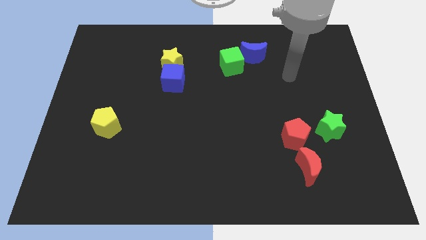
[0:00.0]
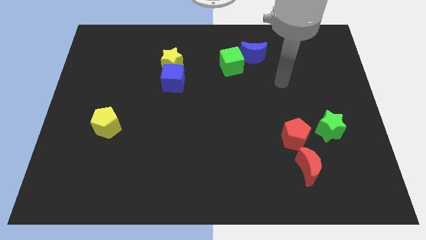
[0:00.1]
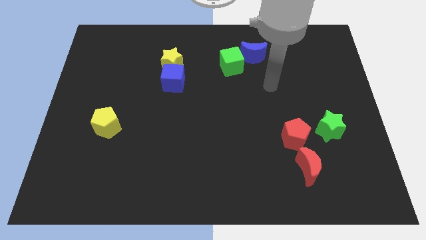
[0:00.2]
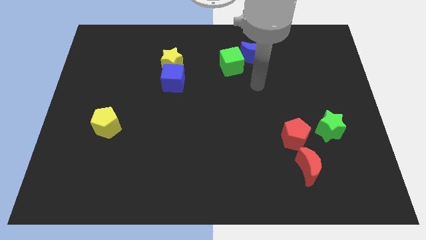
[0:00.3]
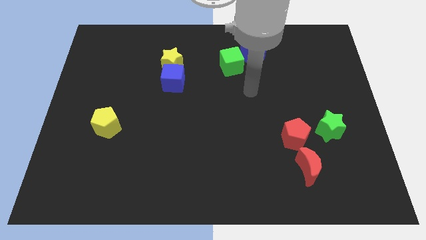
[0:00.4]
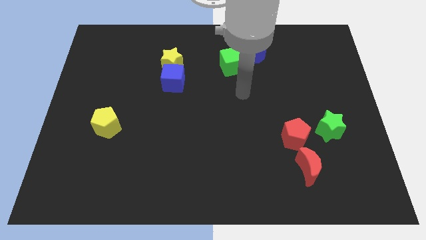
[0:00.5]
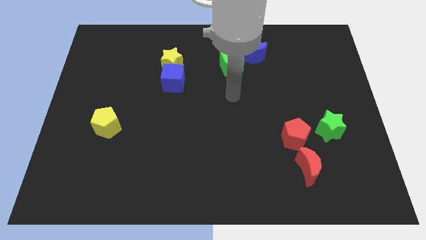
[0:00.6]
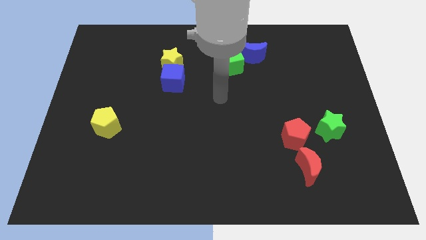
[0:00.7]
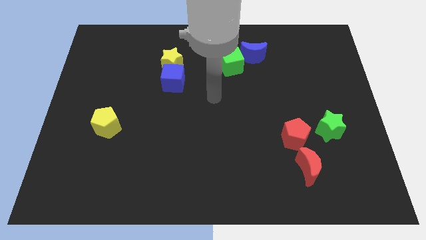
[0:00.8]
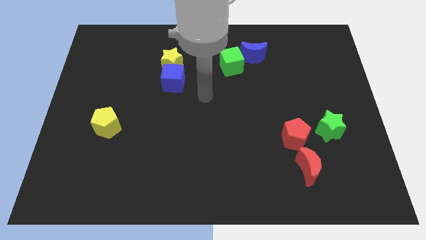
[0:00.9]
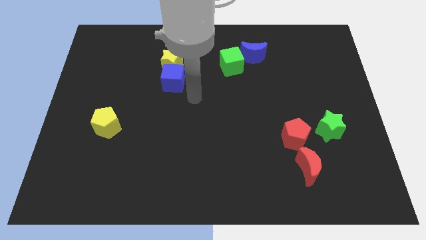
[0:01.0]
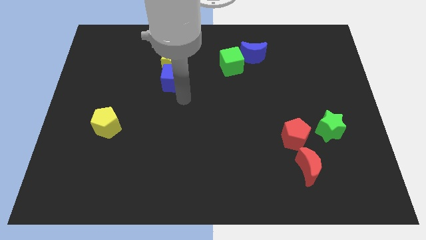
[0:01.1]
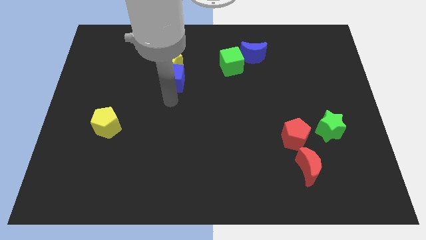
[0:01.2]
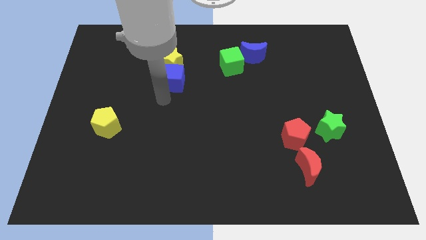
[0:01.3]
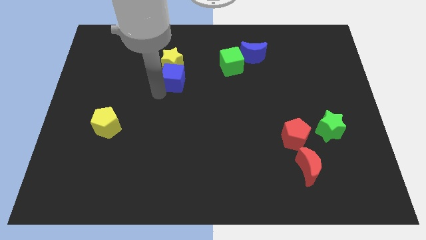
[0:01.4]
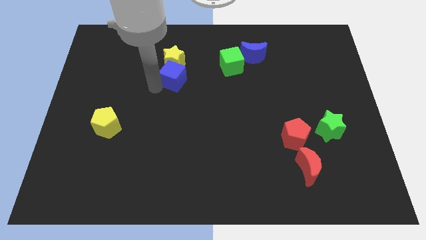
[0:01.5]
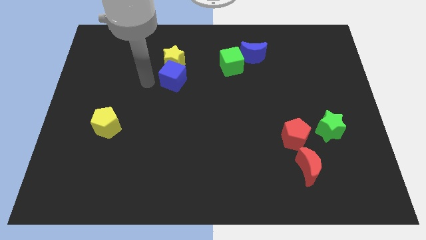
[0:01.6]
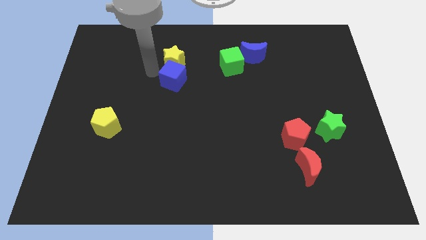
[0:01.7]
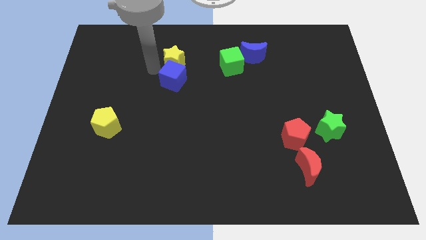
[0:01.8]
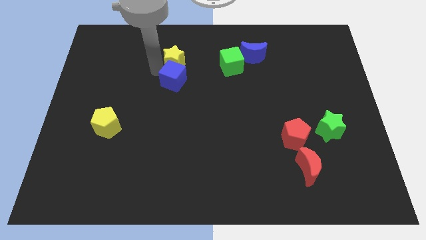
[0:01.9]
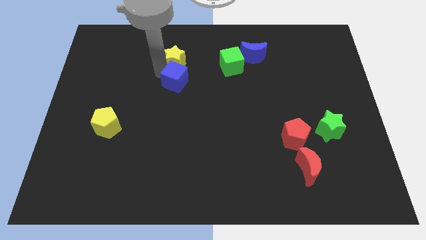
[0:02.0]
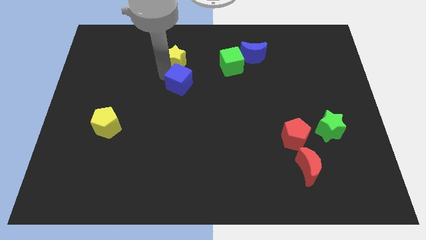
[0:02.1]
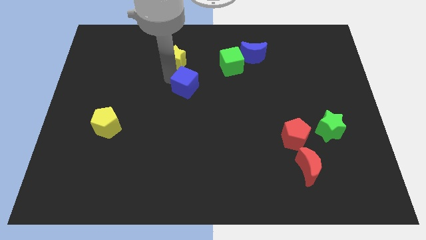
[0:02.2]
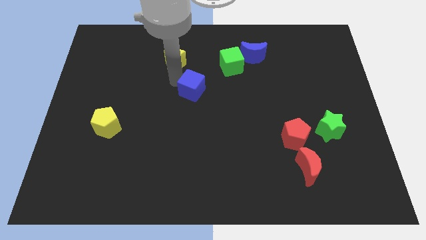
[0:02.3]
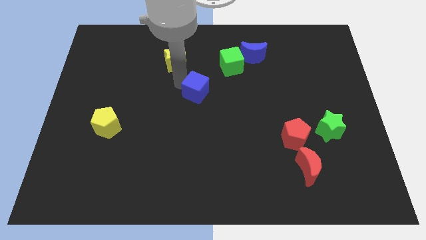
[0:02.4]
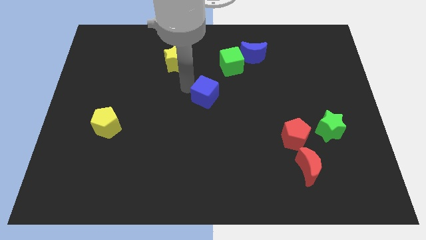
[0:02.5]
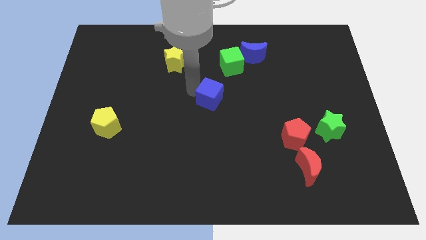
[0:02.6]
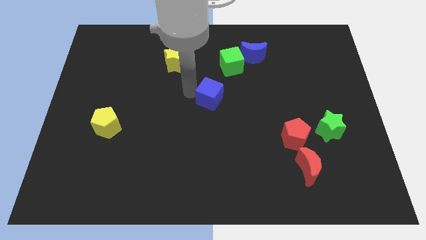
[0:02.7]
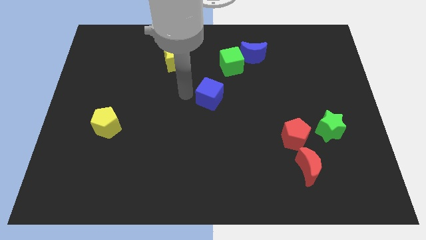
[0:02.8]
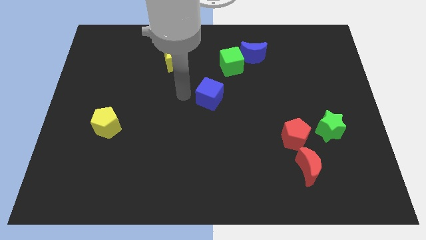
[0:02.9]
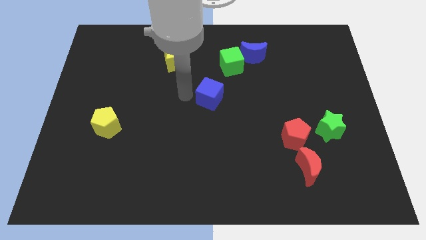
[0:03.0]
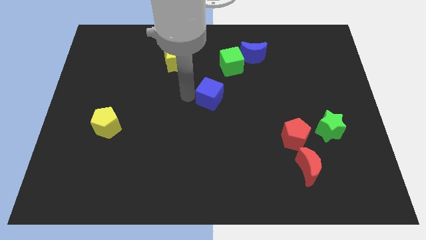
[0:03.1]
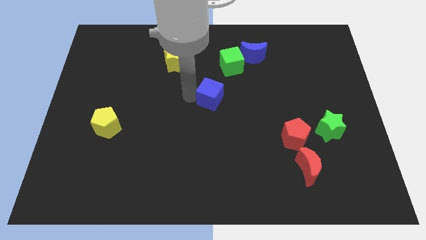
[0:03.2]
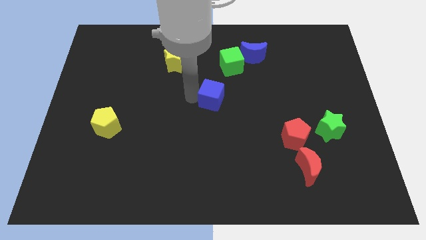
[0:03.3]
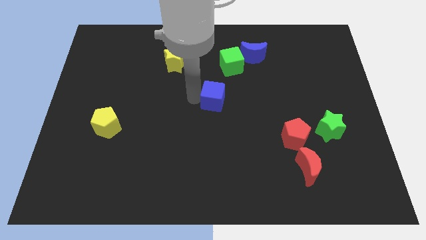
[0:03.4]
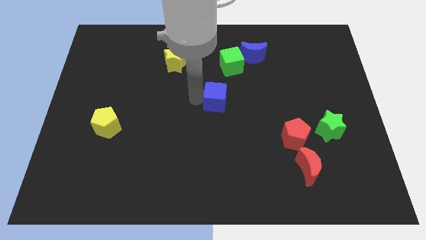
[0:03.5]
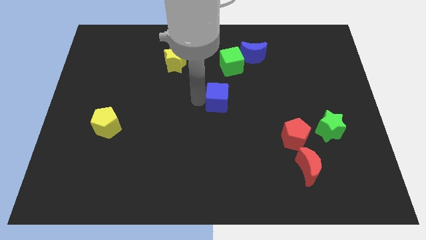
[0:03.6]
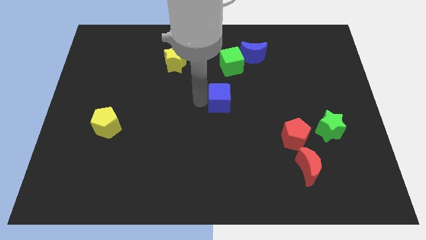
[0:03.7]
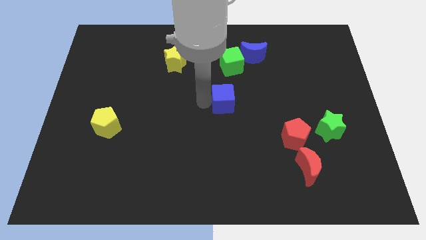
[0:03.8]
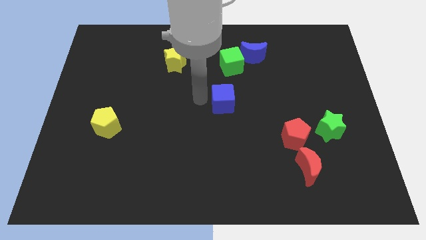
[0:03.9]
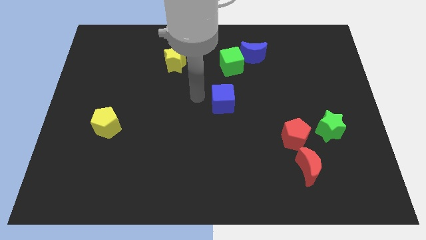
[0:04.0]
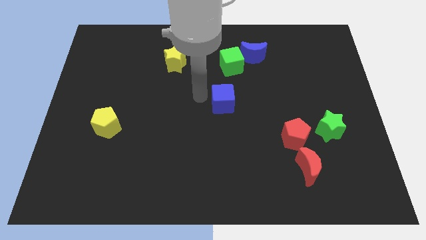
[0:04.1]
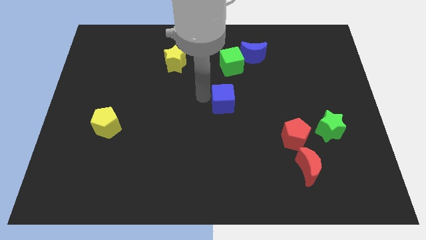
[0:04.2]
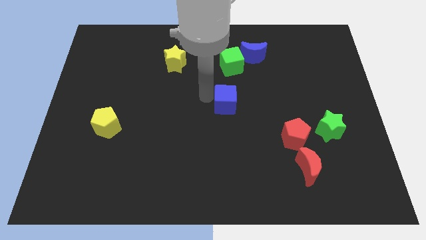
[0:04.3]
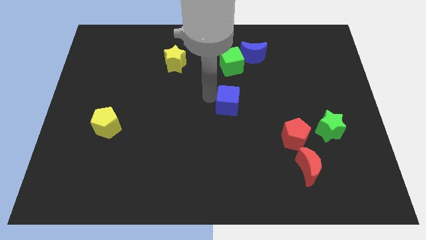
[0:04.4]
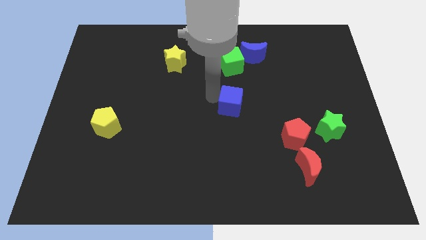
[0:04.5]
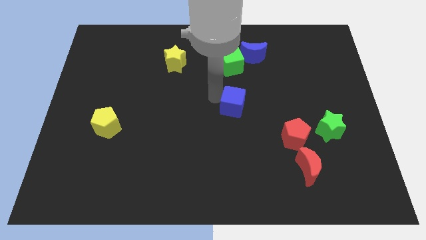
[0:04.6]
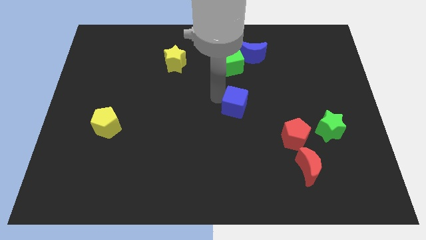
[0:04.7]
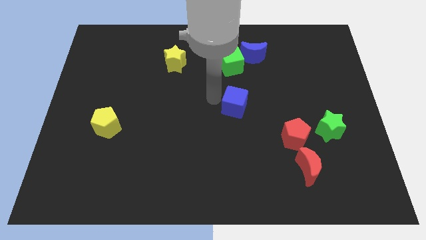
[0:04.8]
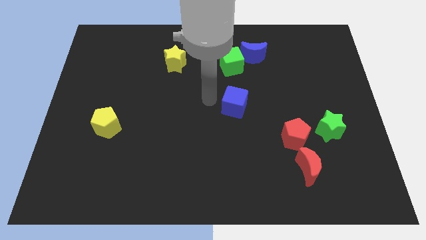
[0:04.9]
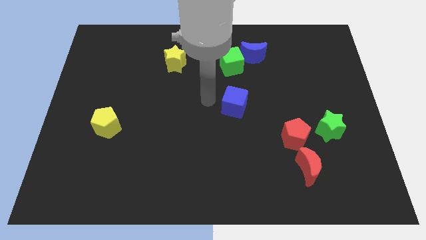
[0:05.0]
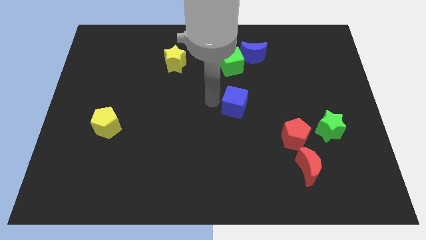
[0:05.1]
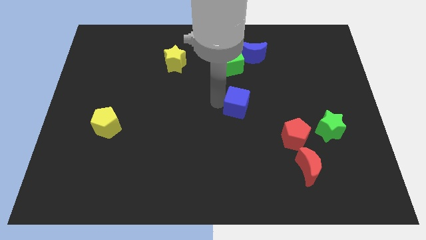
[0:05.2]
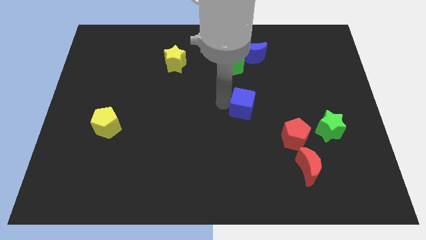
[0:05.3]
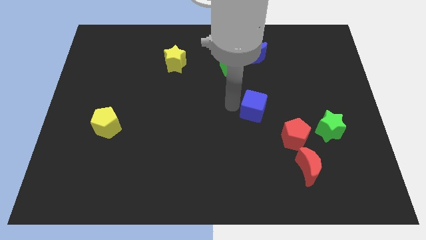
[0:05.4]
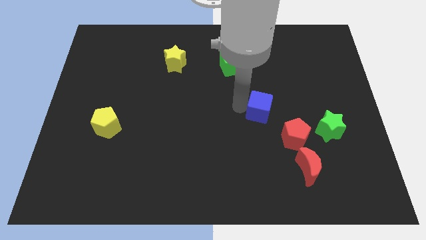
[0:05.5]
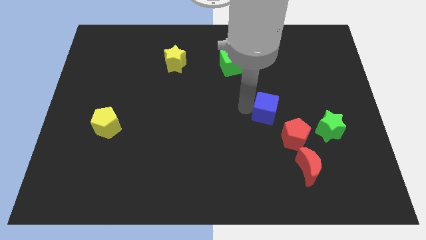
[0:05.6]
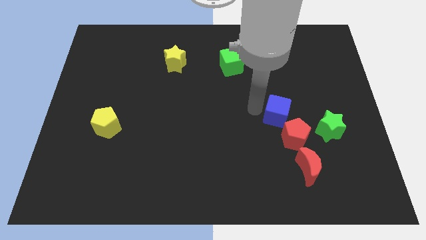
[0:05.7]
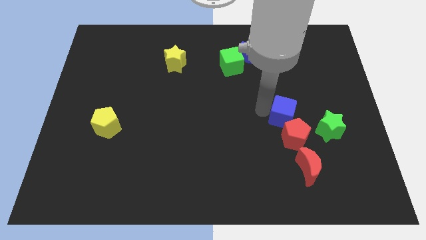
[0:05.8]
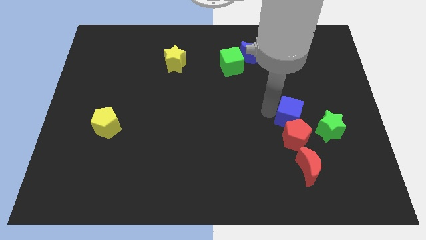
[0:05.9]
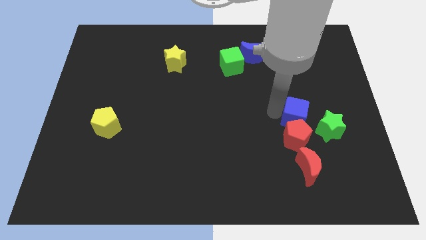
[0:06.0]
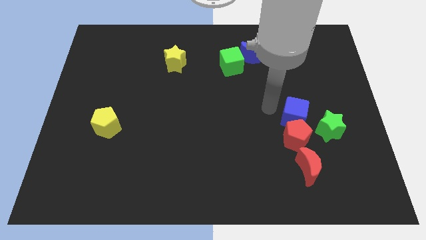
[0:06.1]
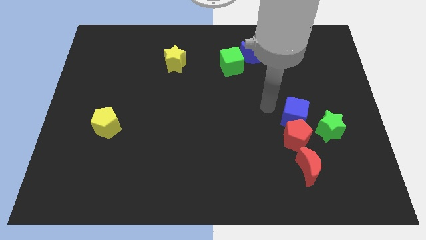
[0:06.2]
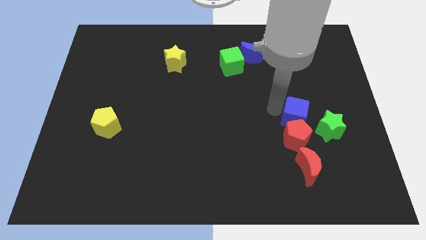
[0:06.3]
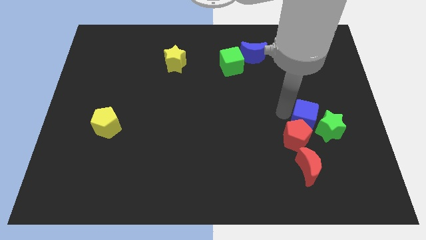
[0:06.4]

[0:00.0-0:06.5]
slide the blue cube next to the green star

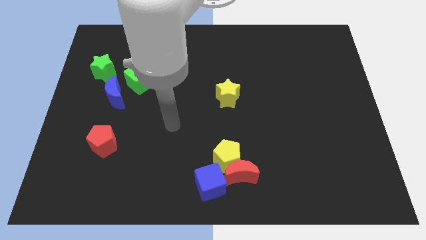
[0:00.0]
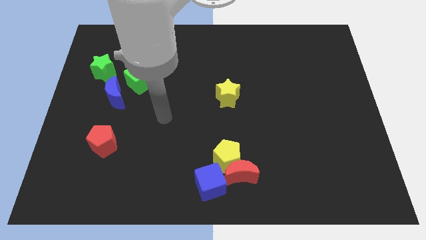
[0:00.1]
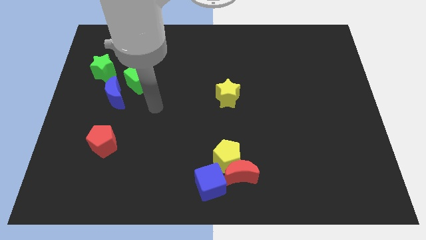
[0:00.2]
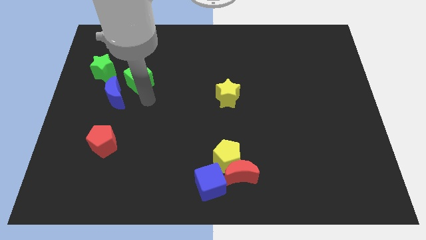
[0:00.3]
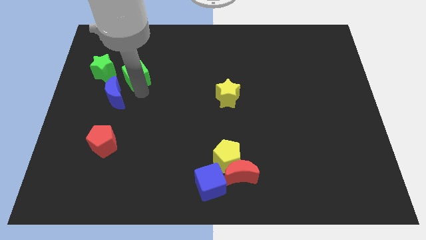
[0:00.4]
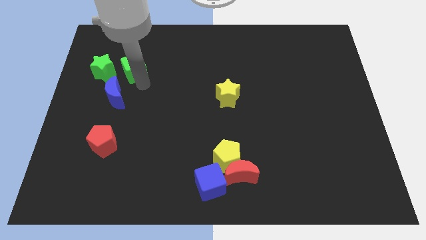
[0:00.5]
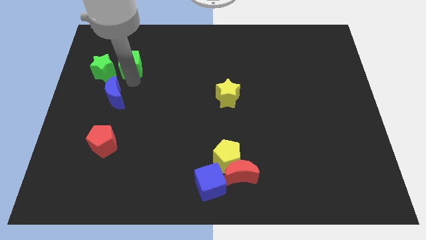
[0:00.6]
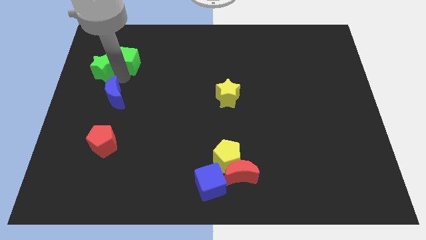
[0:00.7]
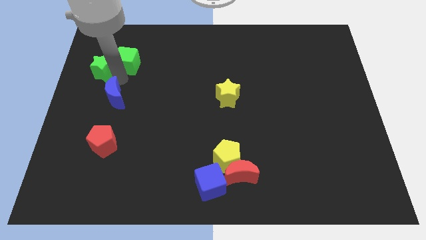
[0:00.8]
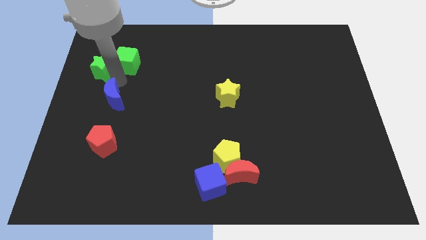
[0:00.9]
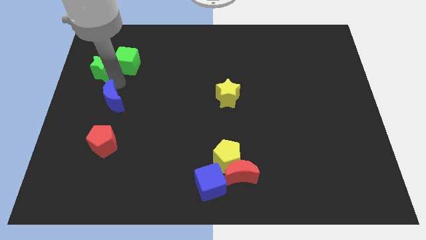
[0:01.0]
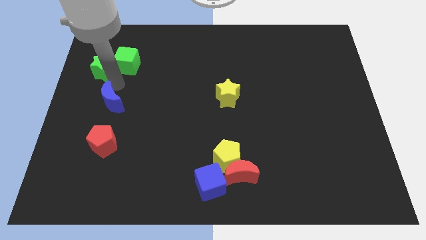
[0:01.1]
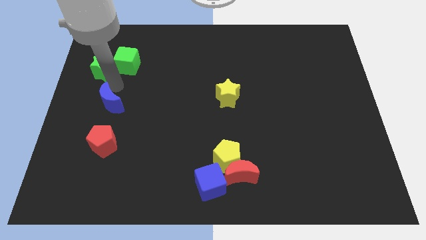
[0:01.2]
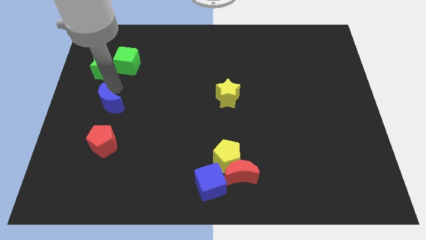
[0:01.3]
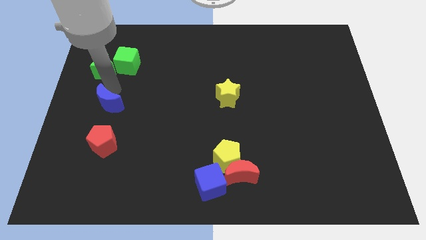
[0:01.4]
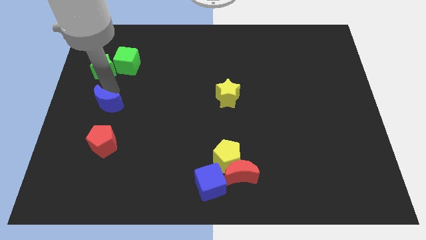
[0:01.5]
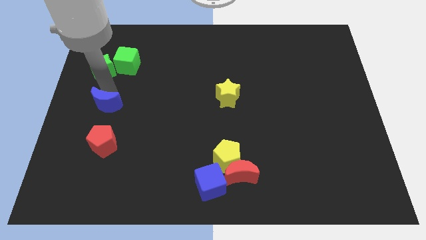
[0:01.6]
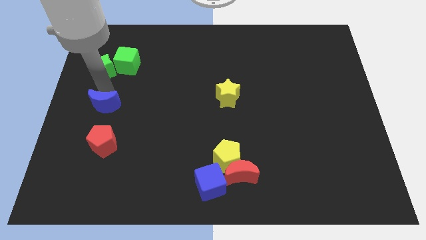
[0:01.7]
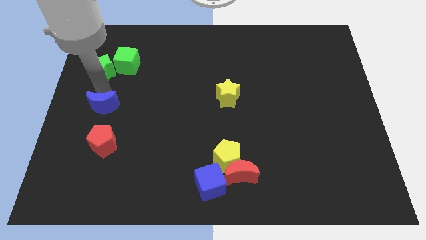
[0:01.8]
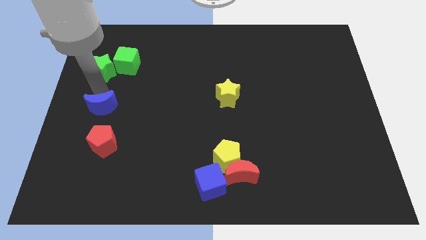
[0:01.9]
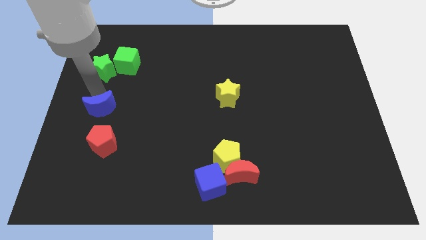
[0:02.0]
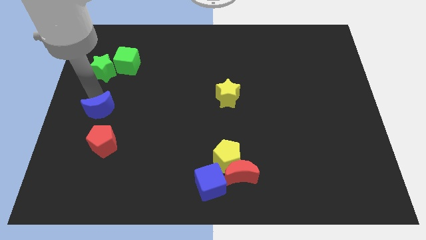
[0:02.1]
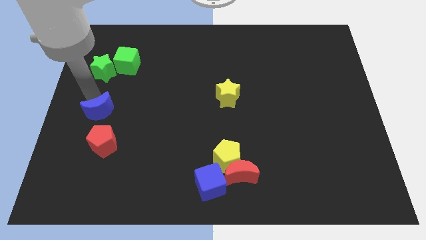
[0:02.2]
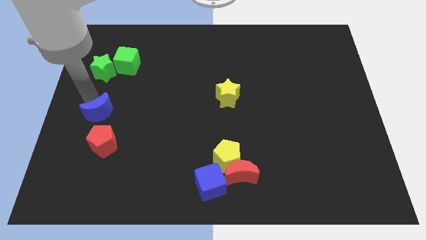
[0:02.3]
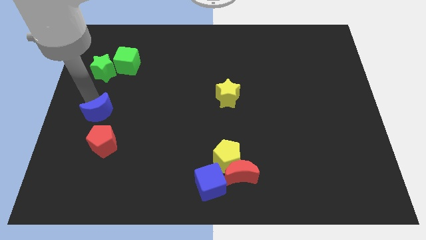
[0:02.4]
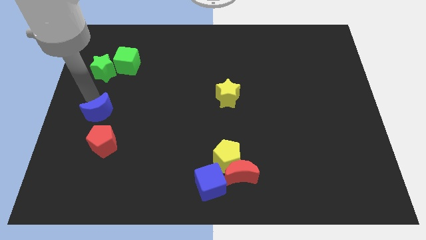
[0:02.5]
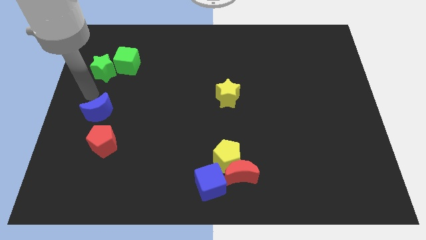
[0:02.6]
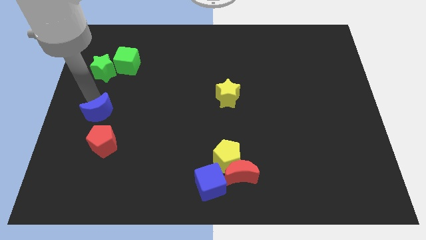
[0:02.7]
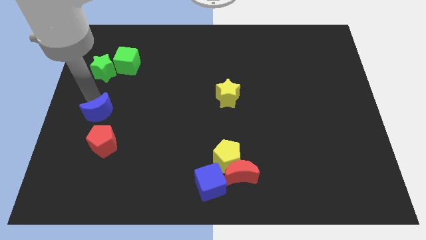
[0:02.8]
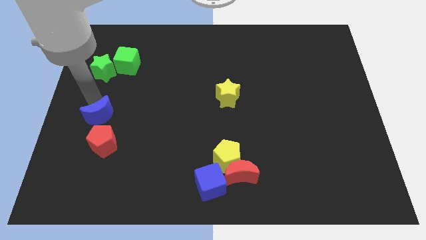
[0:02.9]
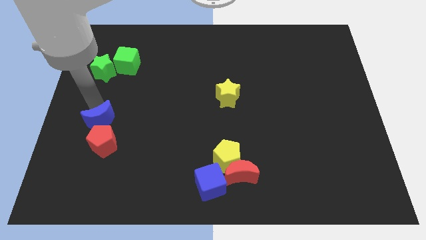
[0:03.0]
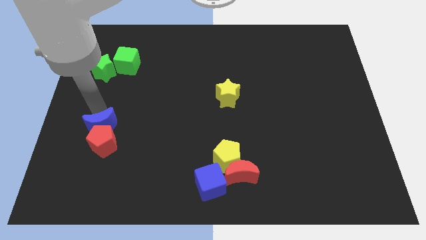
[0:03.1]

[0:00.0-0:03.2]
slide the blue moon close to the red pentagon
